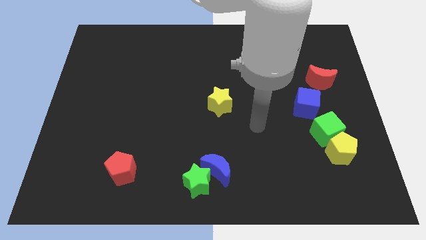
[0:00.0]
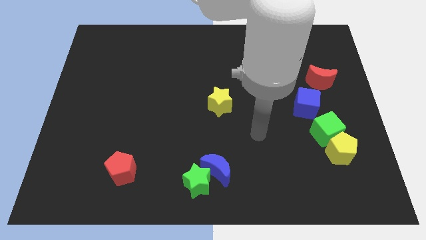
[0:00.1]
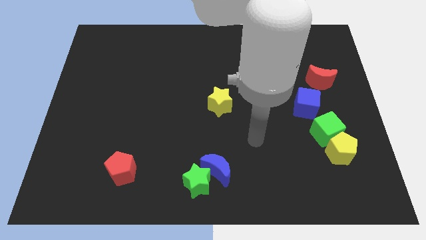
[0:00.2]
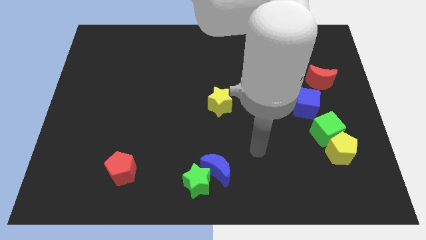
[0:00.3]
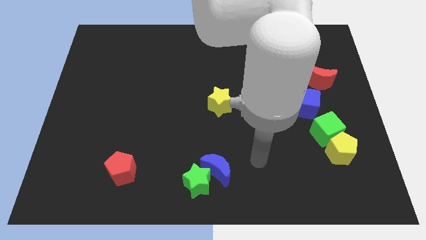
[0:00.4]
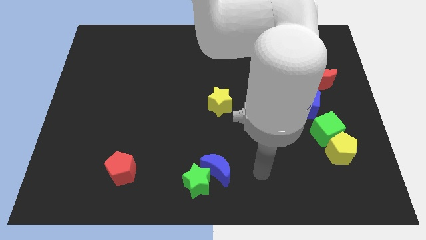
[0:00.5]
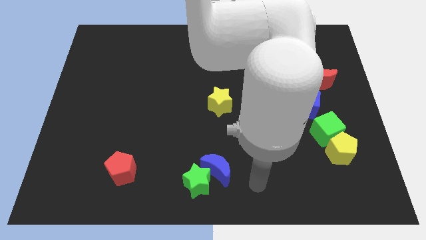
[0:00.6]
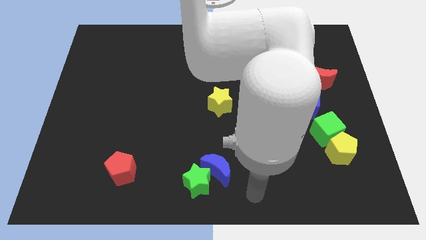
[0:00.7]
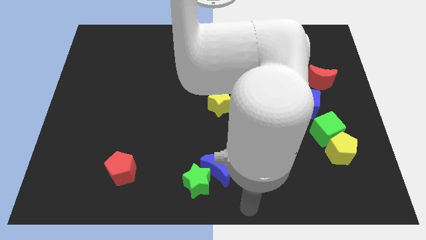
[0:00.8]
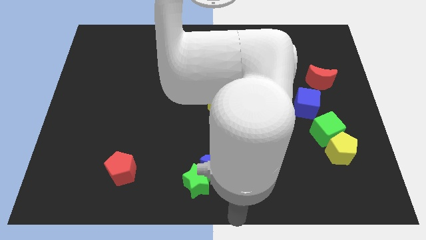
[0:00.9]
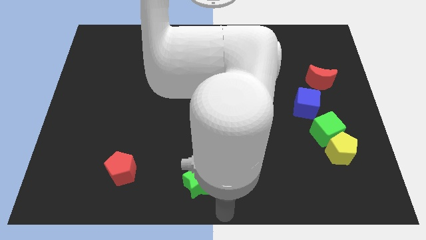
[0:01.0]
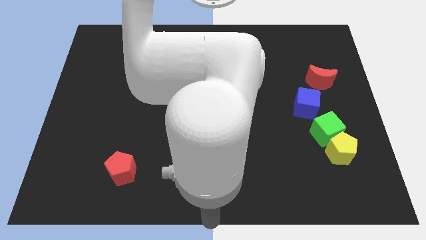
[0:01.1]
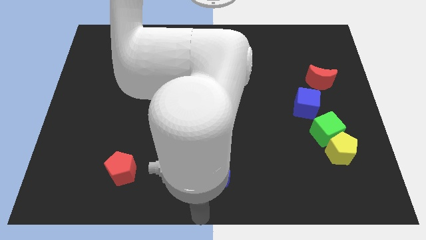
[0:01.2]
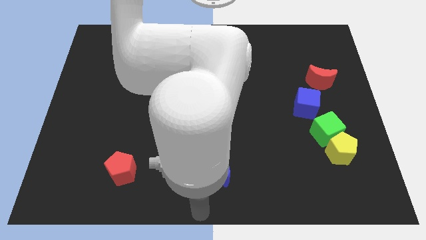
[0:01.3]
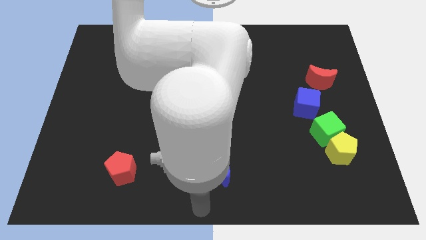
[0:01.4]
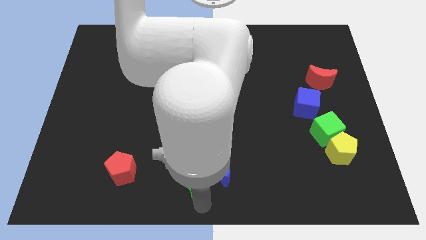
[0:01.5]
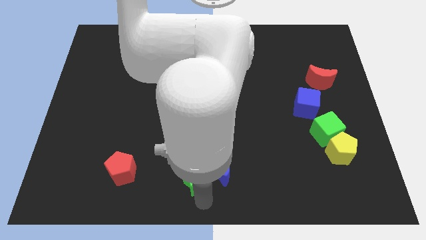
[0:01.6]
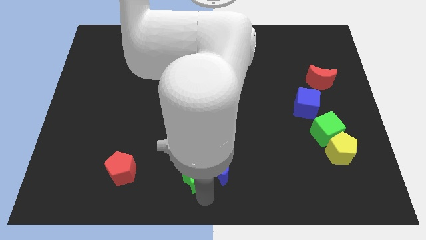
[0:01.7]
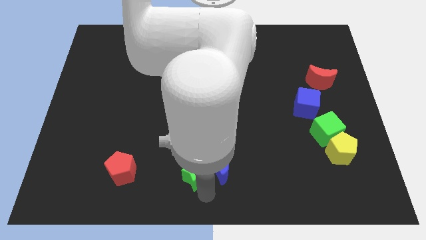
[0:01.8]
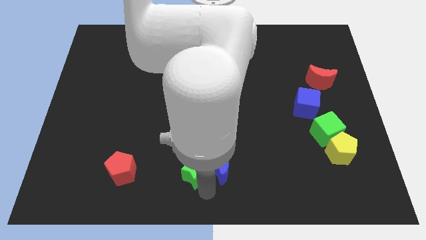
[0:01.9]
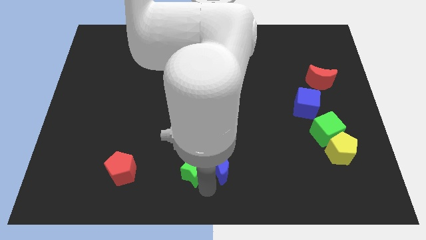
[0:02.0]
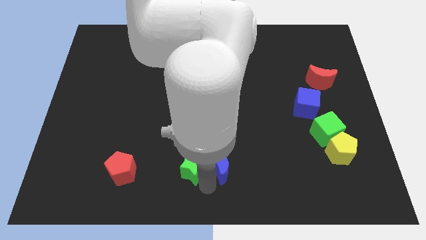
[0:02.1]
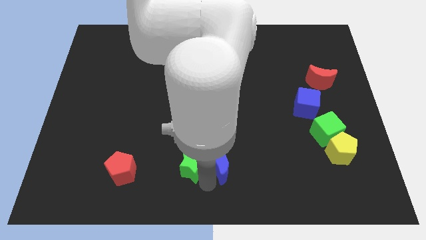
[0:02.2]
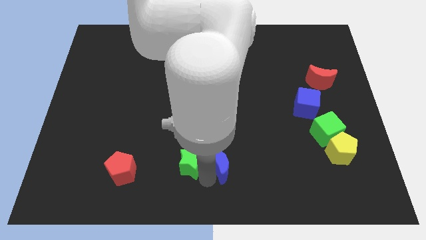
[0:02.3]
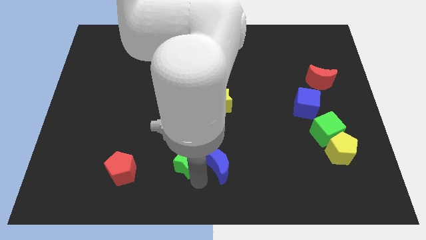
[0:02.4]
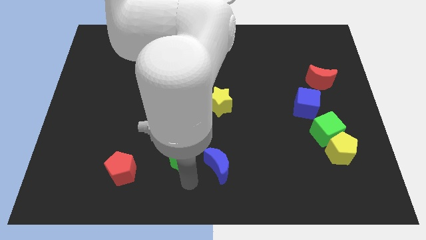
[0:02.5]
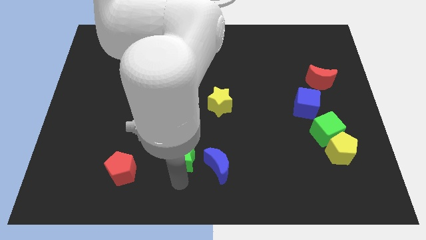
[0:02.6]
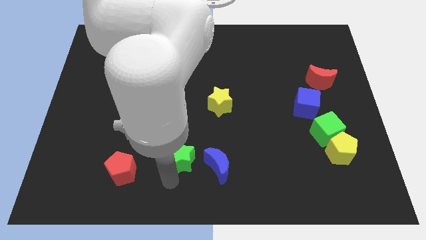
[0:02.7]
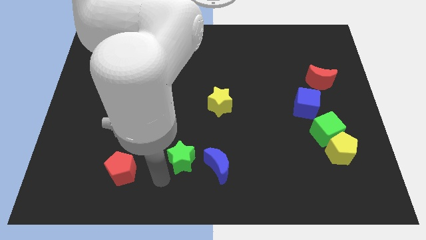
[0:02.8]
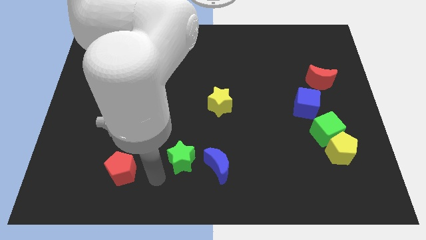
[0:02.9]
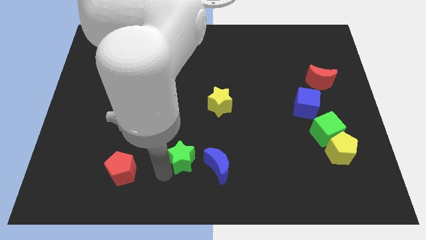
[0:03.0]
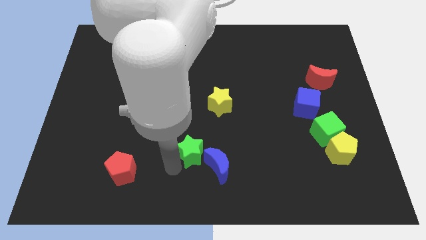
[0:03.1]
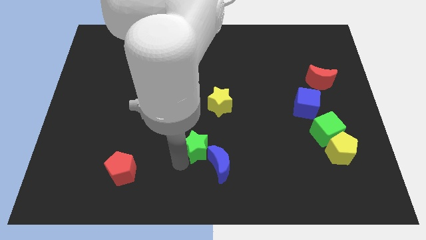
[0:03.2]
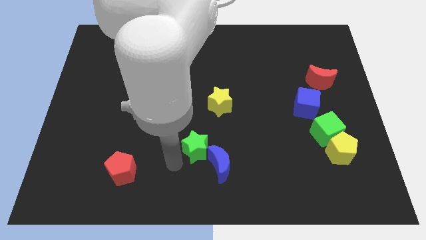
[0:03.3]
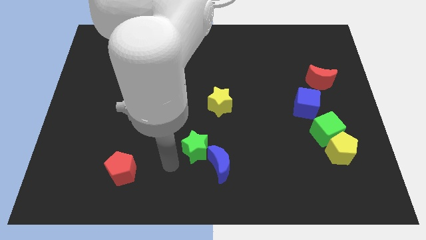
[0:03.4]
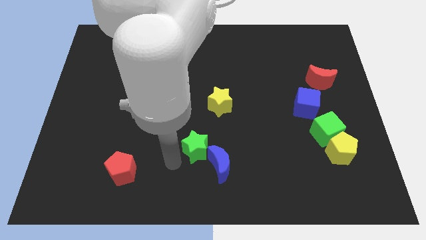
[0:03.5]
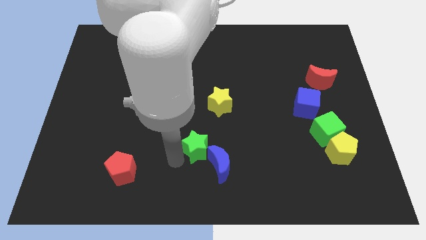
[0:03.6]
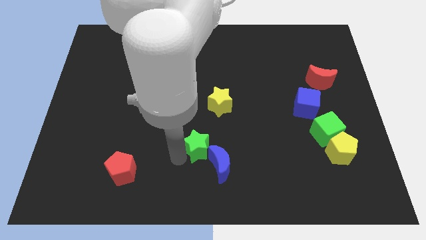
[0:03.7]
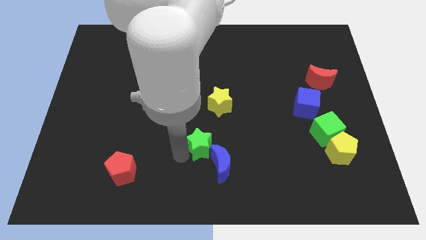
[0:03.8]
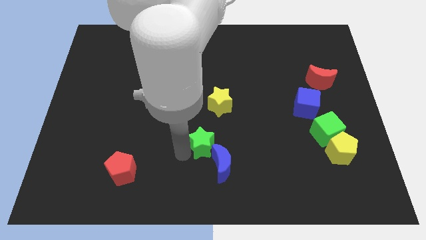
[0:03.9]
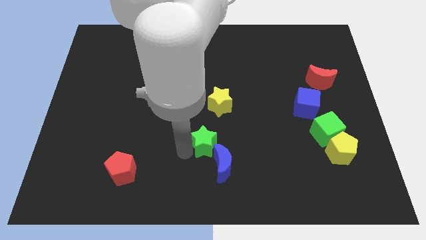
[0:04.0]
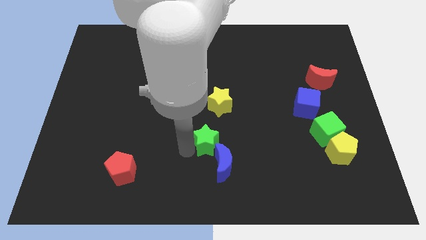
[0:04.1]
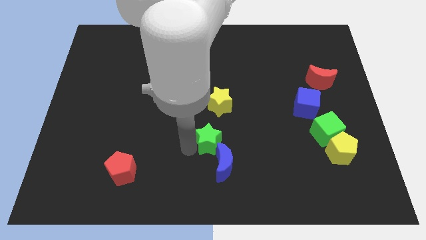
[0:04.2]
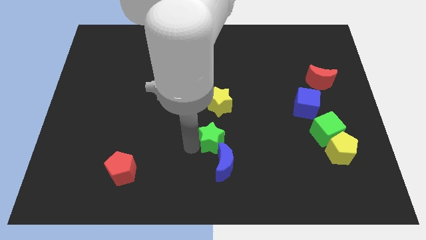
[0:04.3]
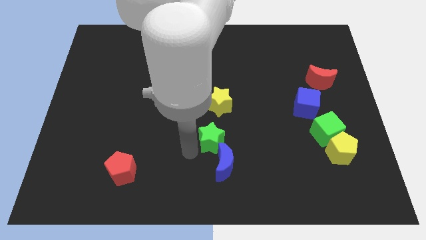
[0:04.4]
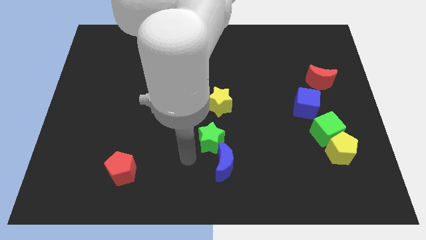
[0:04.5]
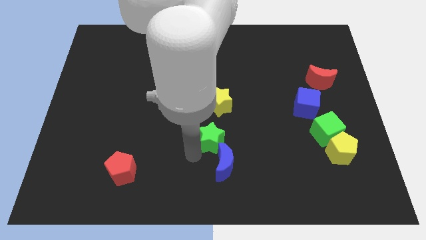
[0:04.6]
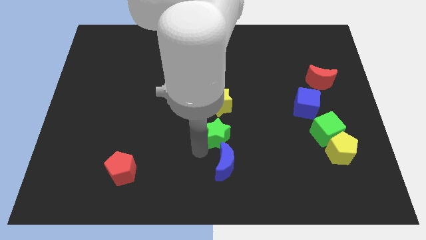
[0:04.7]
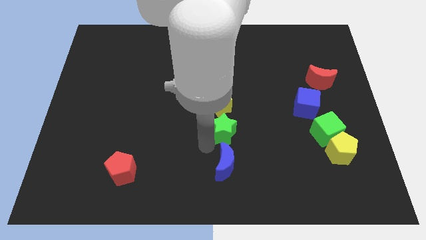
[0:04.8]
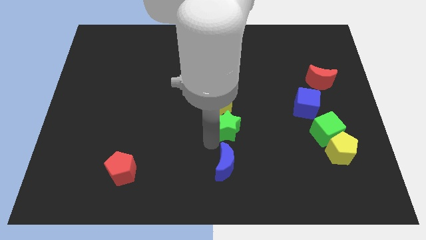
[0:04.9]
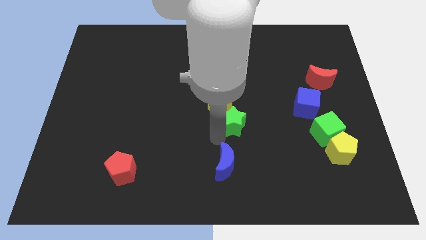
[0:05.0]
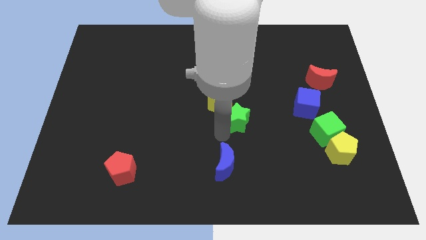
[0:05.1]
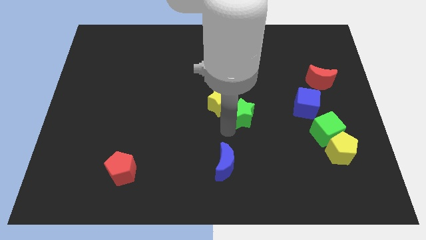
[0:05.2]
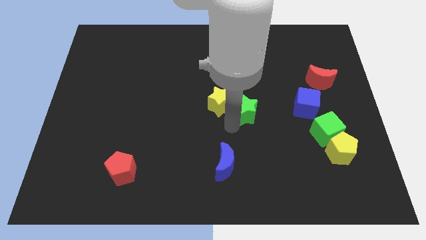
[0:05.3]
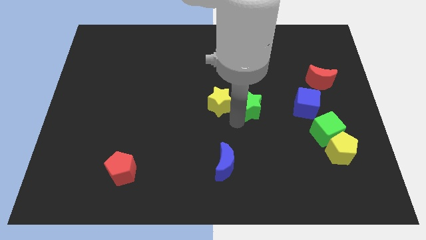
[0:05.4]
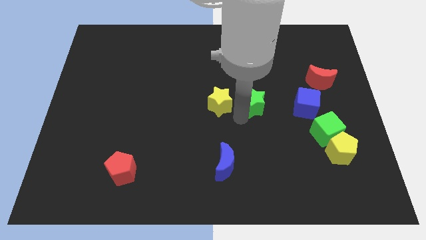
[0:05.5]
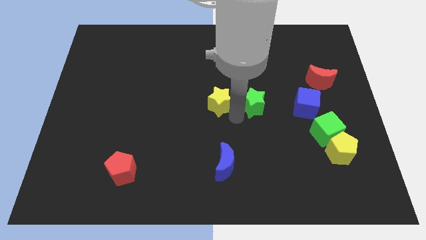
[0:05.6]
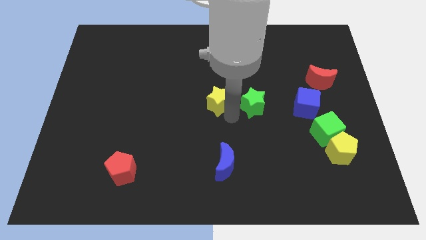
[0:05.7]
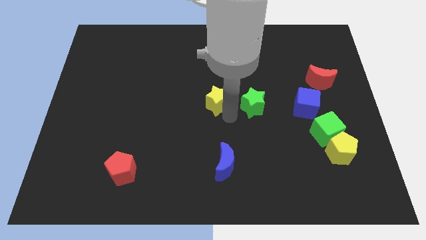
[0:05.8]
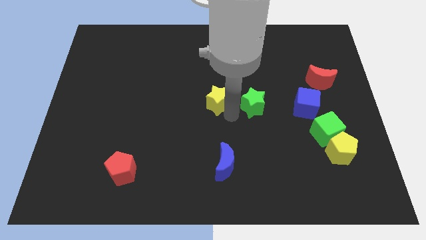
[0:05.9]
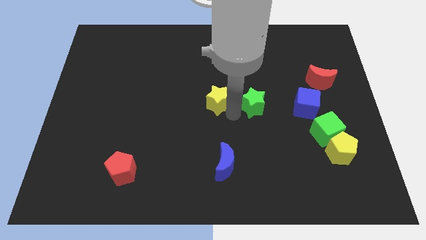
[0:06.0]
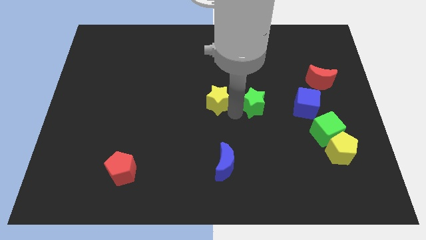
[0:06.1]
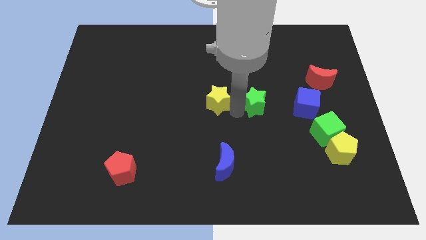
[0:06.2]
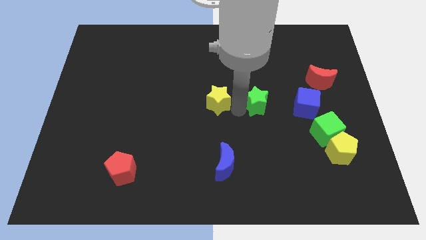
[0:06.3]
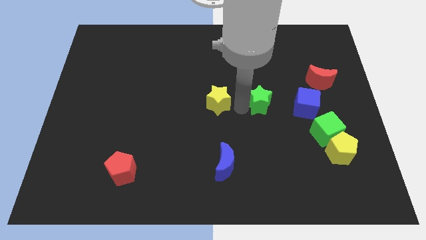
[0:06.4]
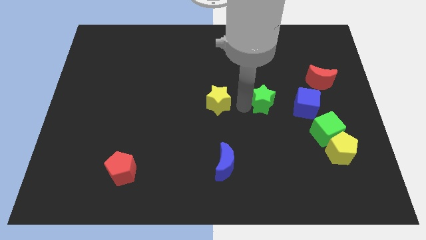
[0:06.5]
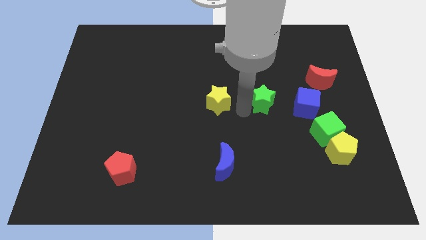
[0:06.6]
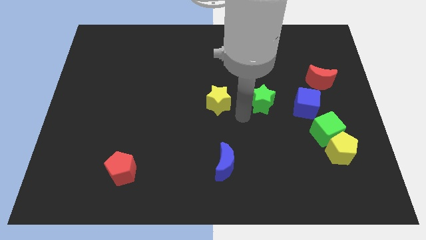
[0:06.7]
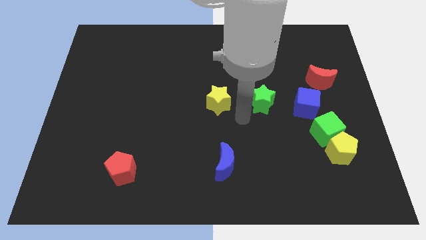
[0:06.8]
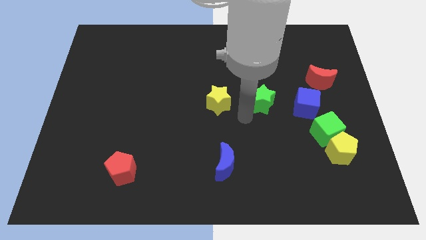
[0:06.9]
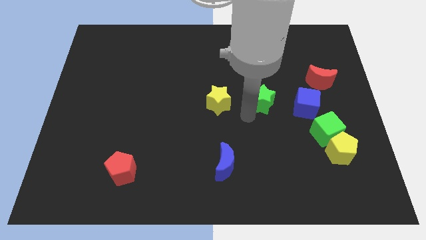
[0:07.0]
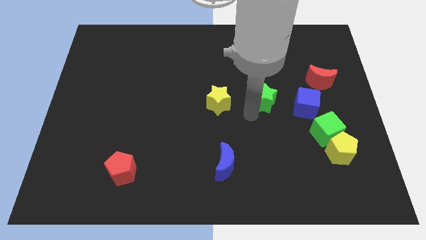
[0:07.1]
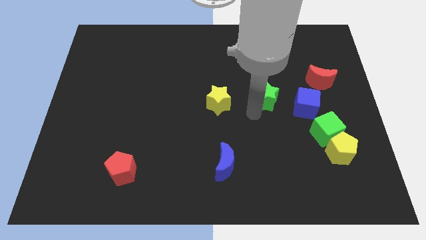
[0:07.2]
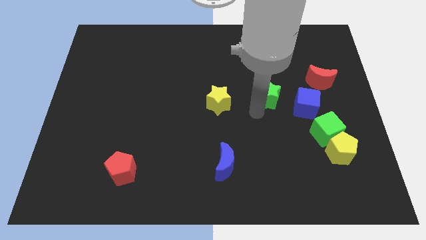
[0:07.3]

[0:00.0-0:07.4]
push the green star diagonally up and to the left of the blue cube
